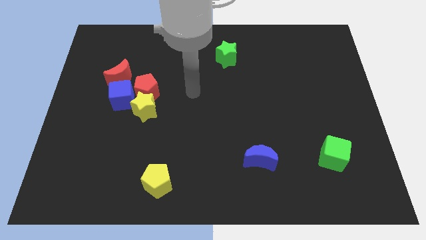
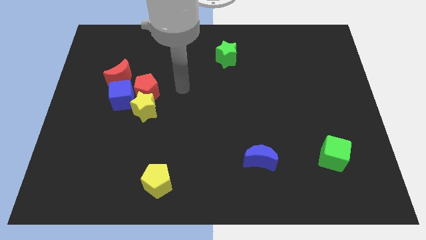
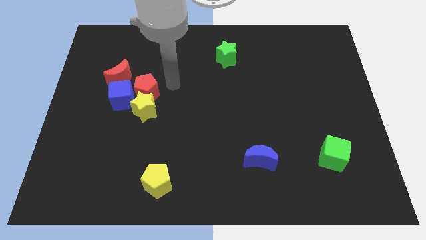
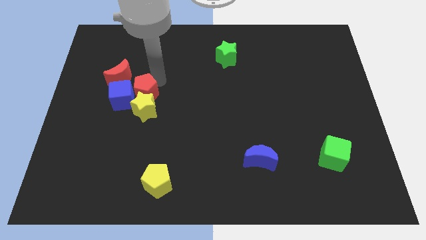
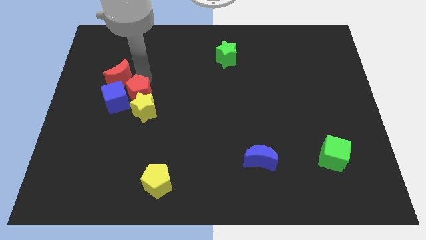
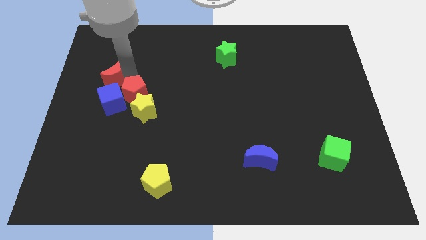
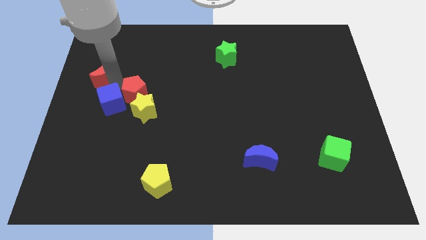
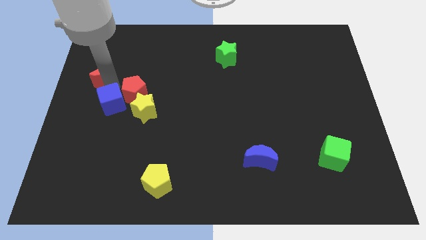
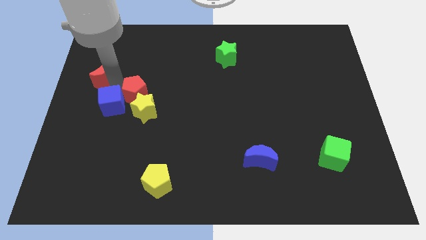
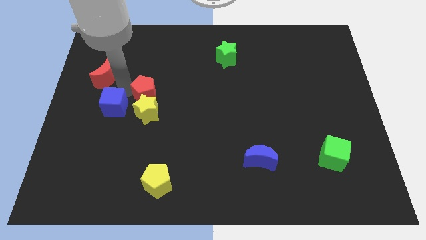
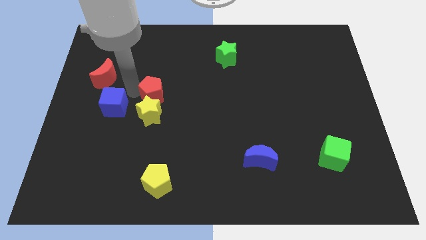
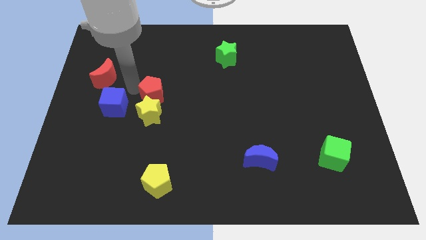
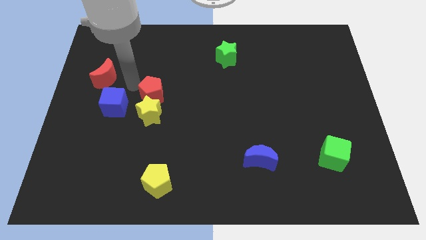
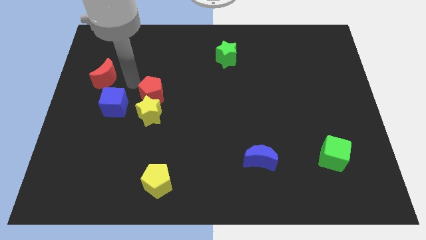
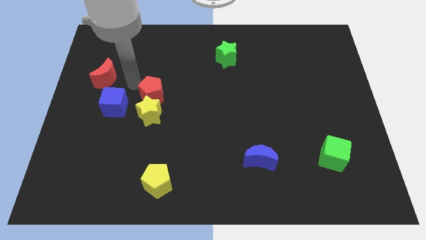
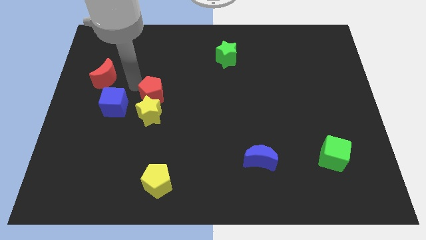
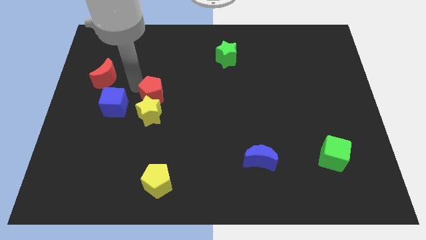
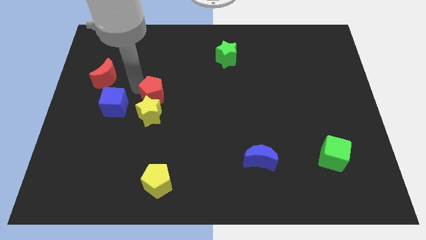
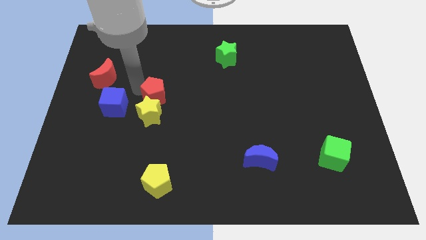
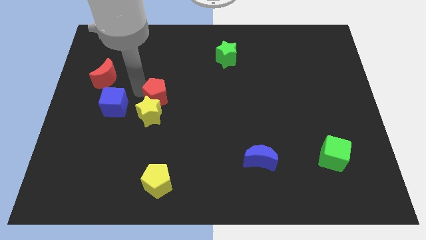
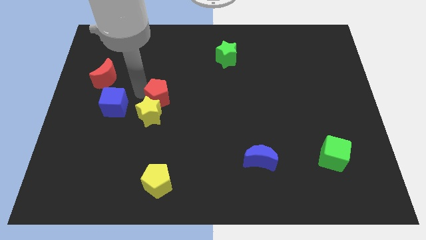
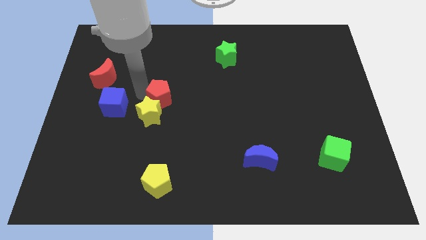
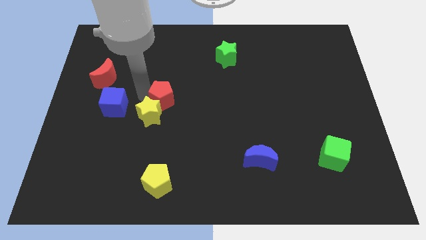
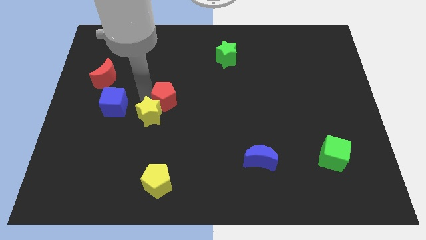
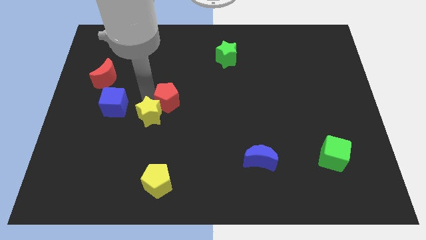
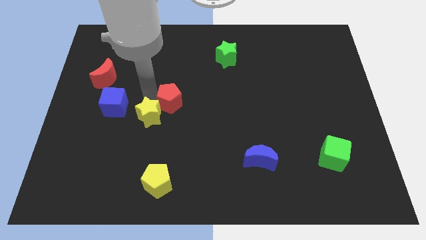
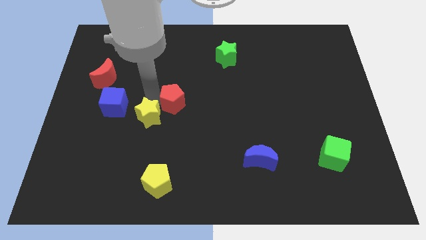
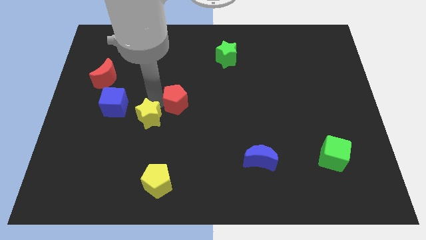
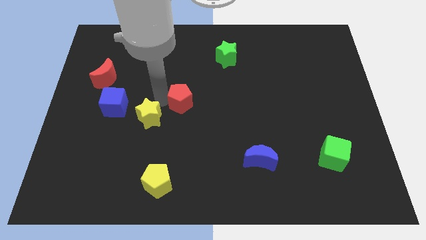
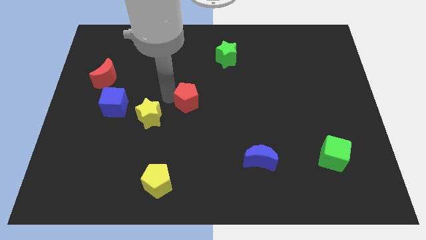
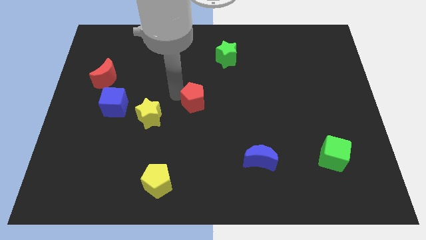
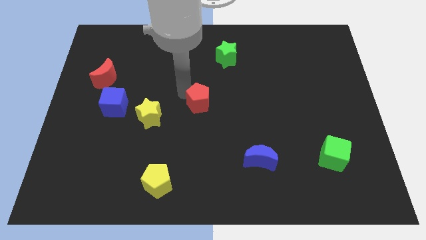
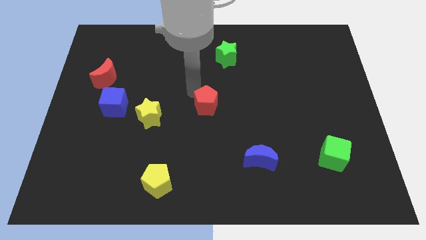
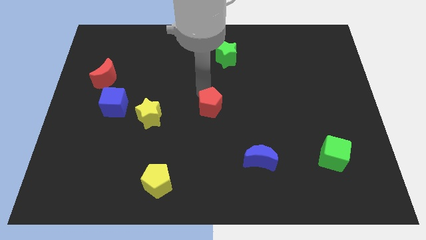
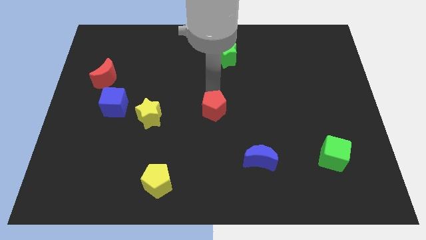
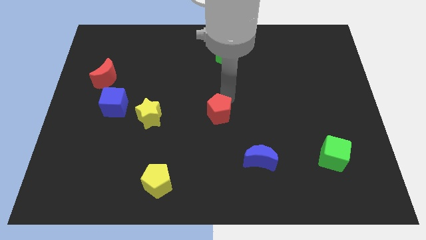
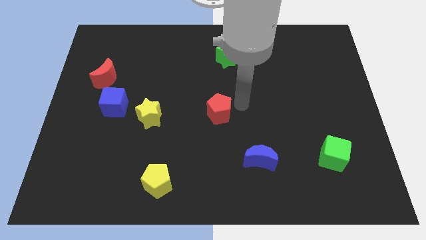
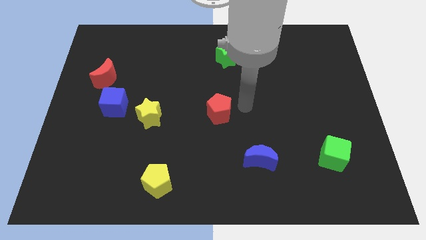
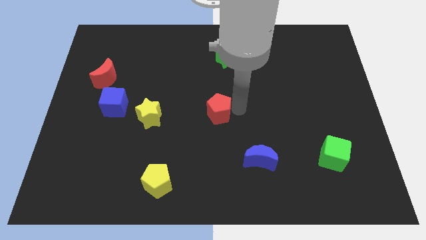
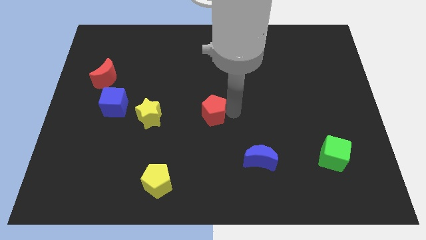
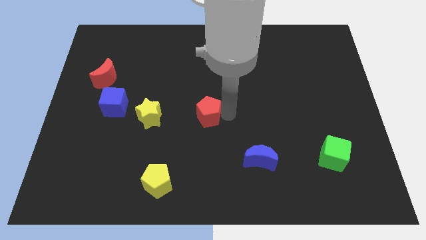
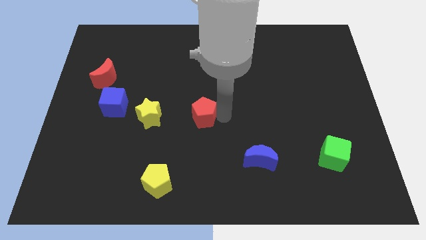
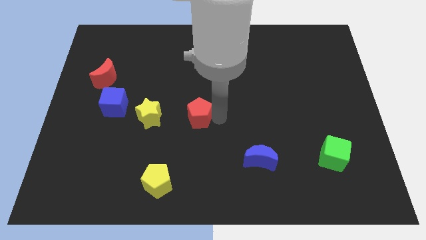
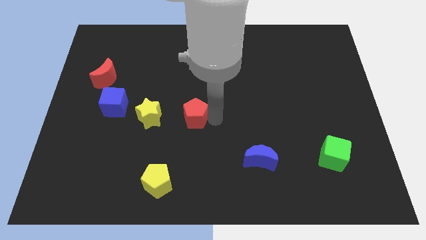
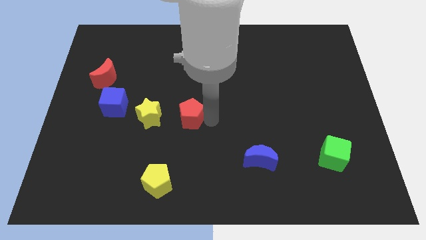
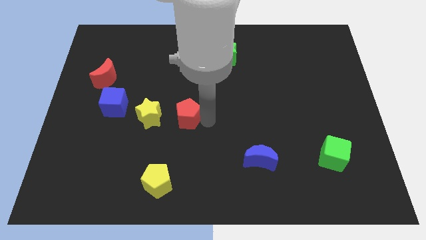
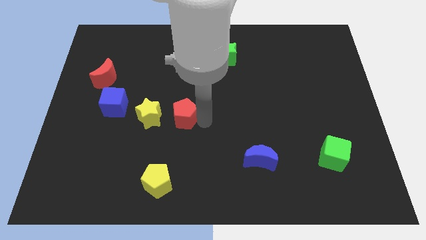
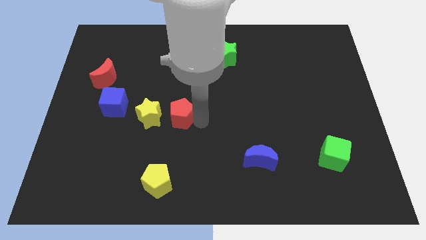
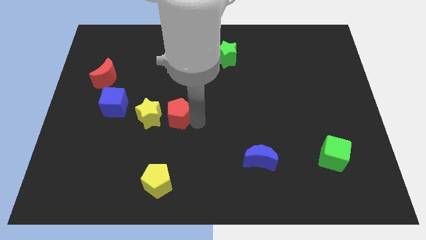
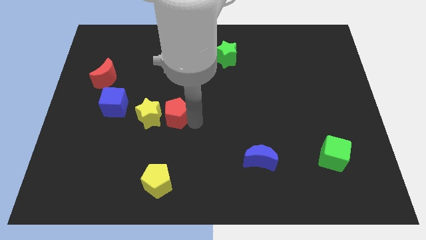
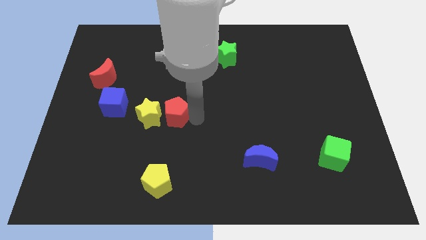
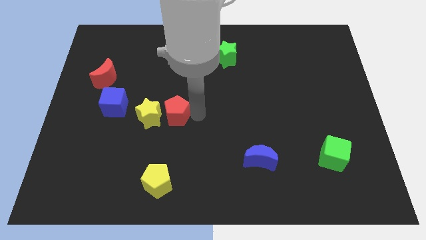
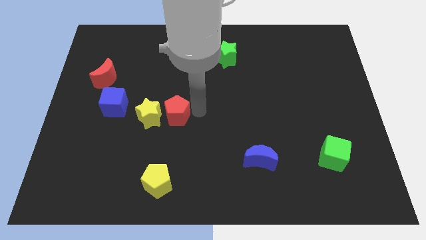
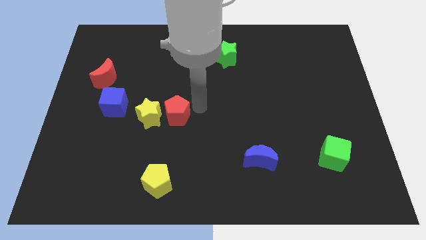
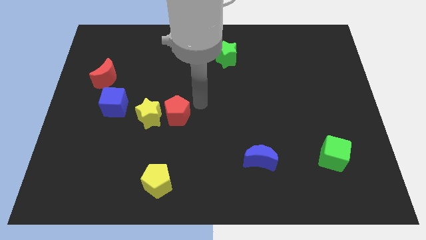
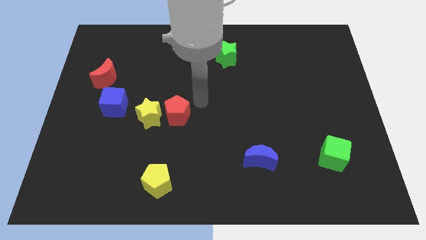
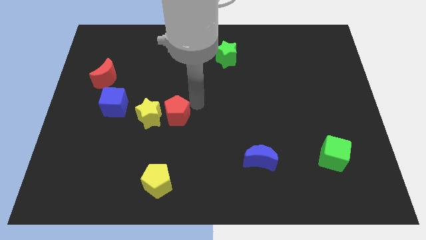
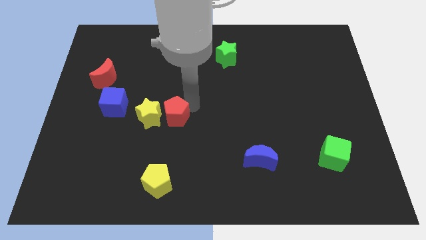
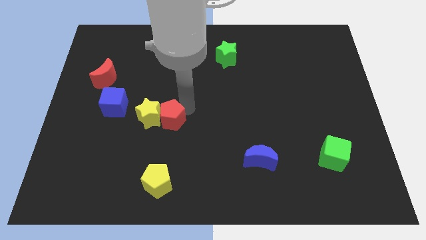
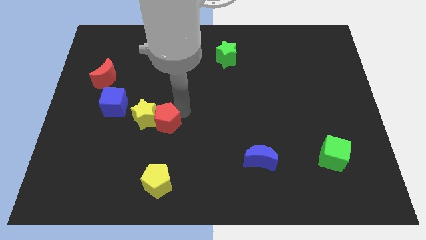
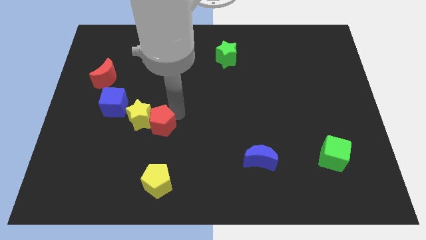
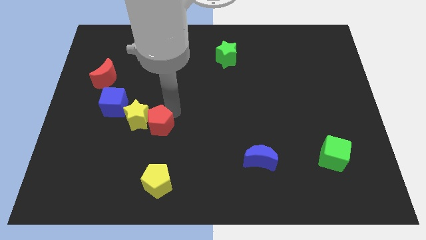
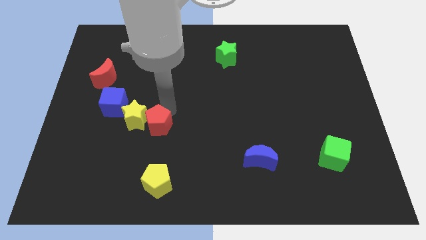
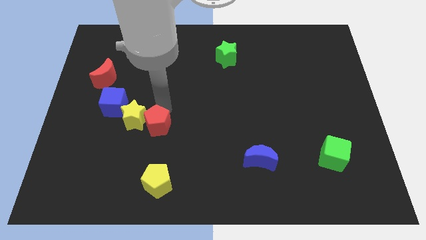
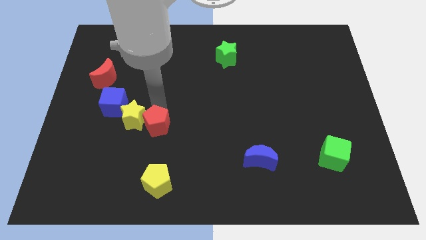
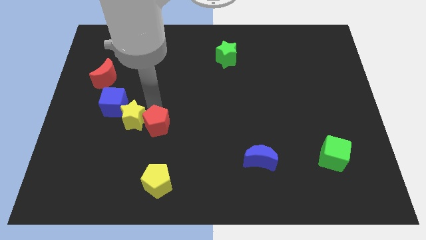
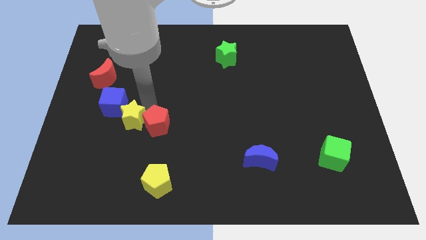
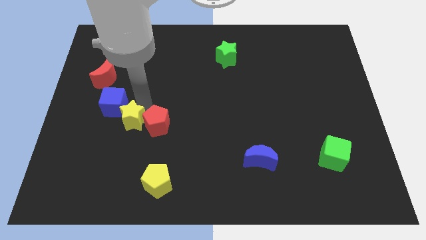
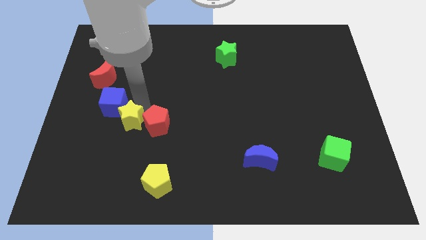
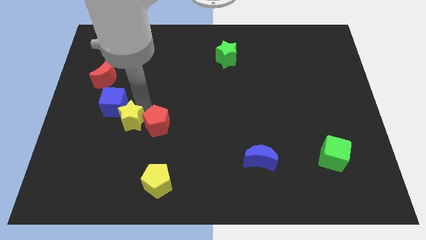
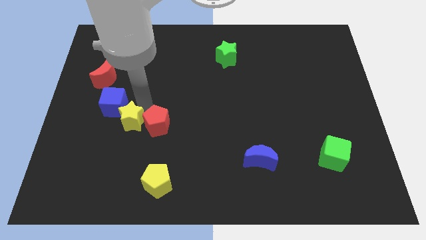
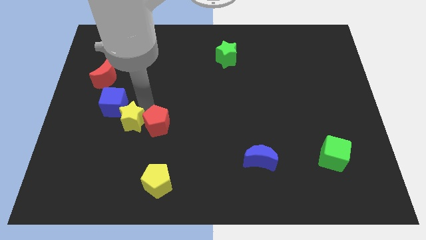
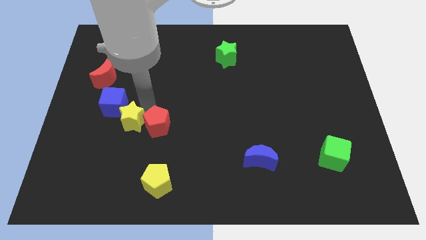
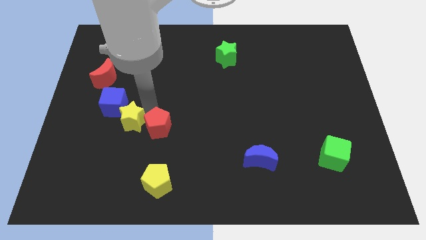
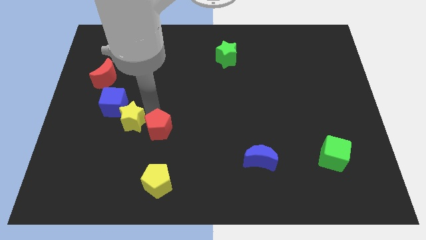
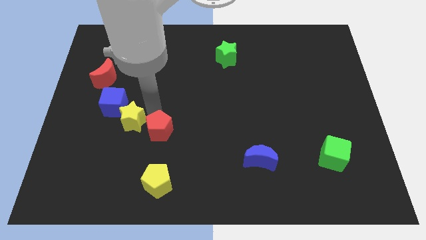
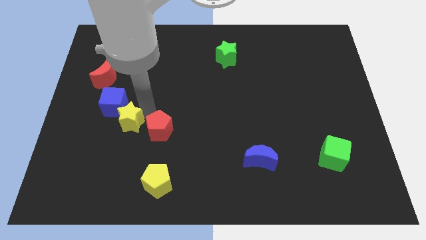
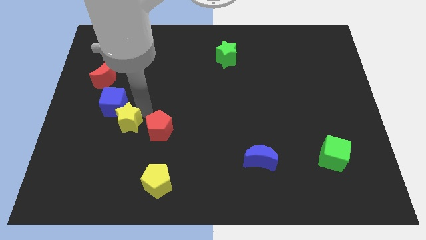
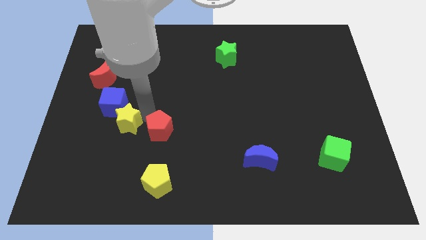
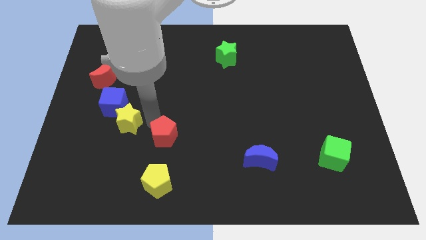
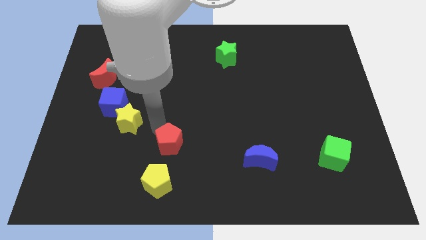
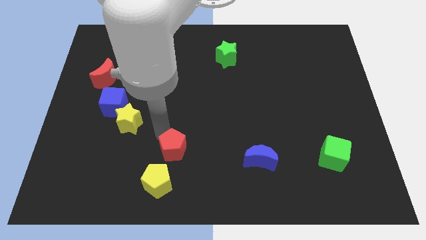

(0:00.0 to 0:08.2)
push the red pentagon diagonally up and to the right of the yellow pentagon
